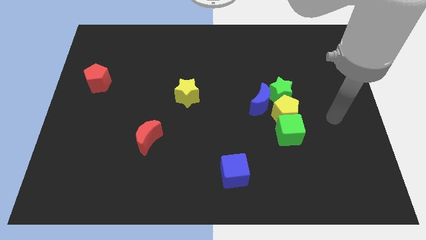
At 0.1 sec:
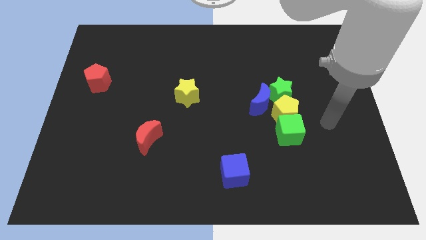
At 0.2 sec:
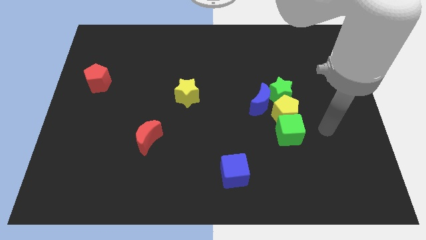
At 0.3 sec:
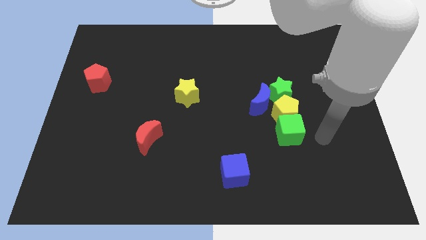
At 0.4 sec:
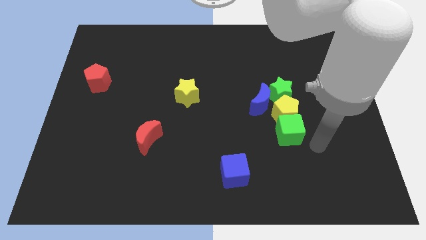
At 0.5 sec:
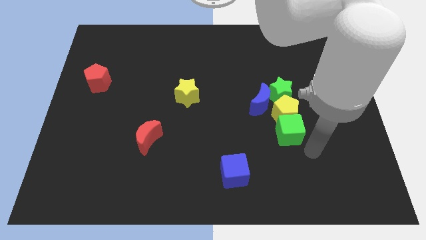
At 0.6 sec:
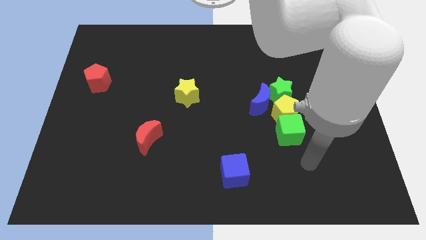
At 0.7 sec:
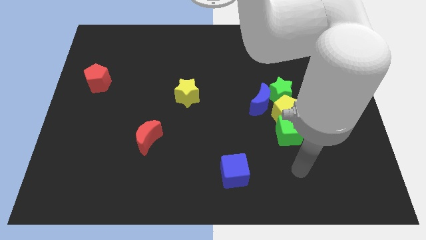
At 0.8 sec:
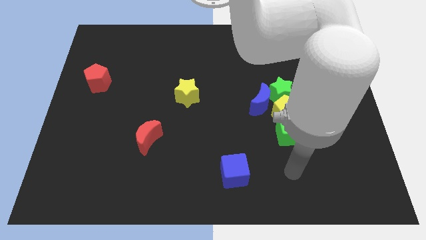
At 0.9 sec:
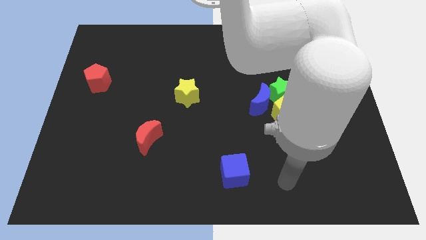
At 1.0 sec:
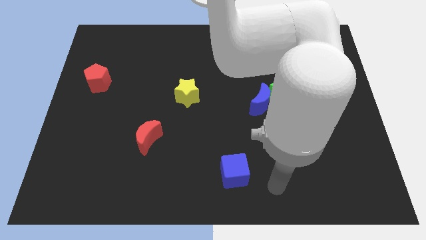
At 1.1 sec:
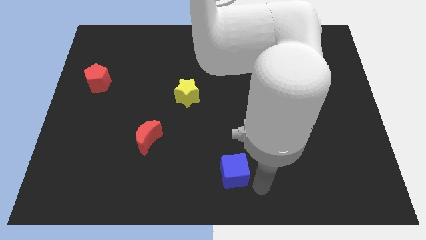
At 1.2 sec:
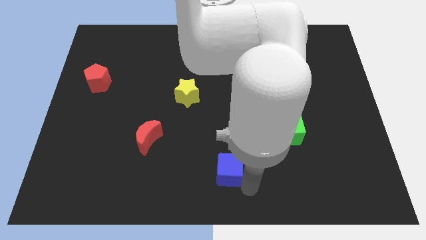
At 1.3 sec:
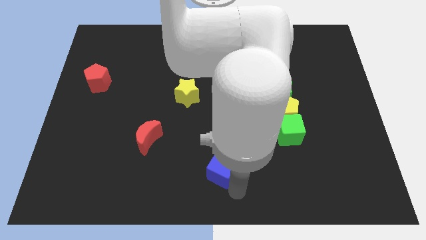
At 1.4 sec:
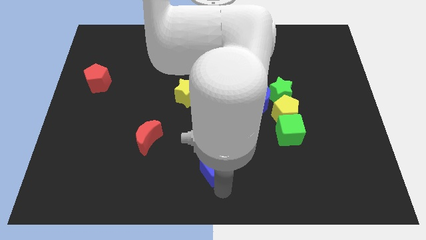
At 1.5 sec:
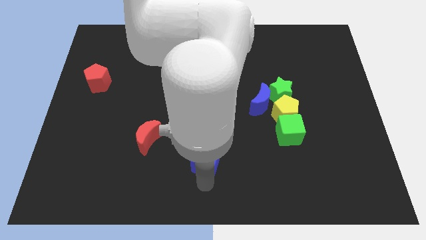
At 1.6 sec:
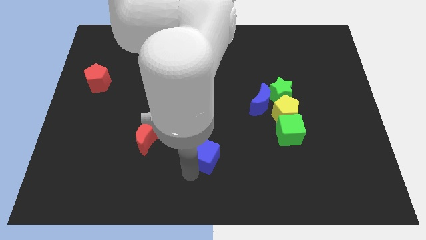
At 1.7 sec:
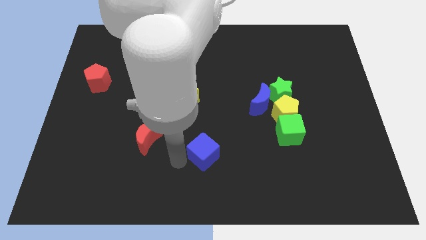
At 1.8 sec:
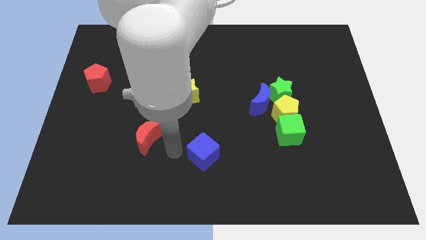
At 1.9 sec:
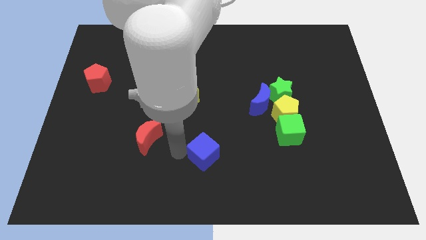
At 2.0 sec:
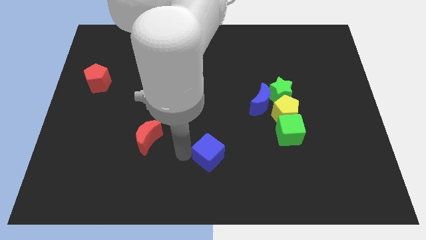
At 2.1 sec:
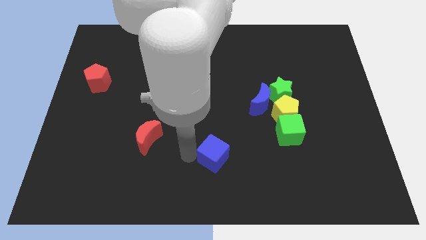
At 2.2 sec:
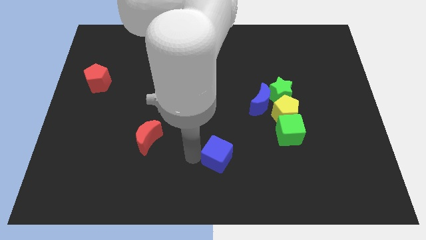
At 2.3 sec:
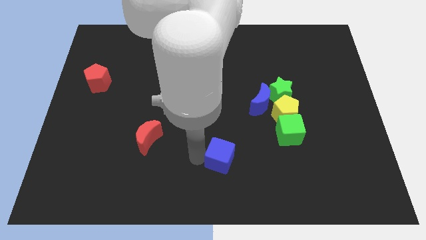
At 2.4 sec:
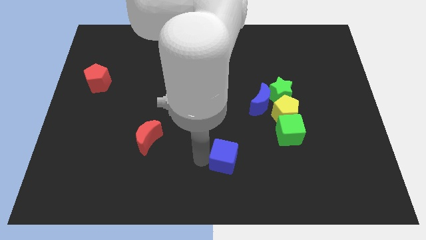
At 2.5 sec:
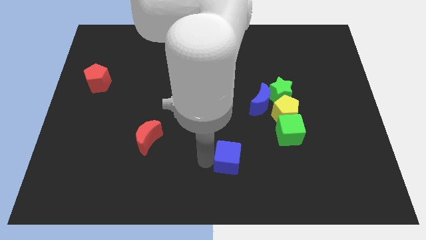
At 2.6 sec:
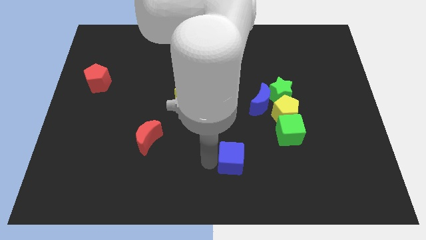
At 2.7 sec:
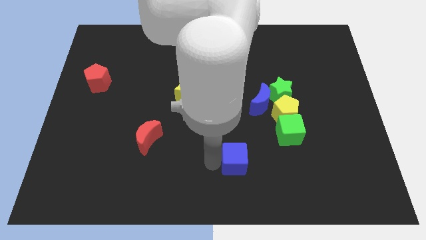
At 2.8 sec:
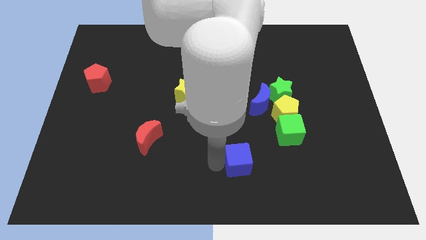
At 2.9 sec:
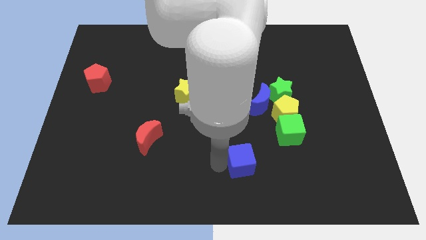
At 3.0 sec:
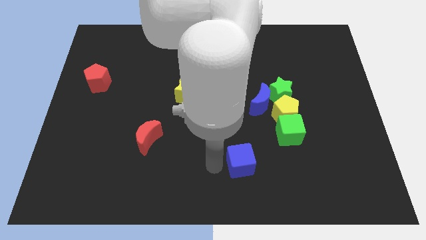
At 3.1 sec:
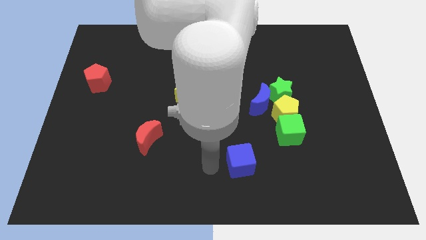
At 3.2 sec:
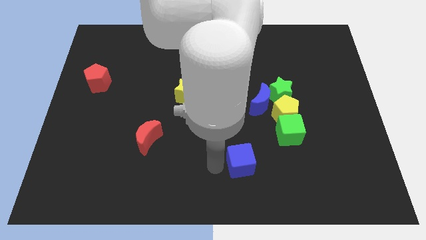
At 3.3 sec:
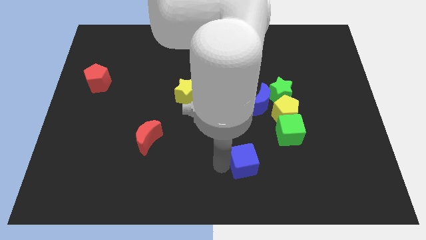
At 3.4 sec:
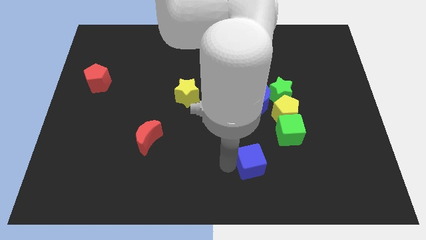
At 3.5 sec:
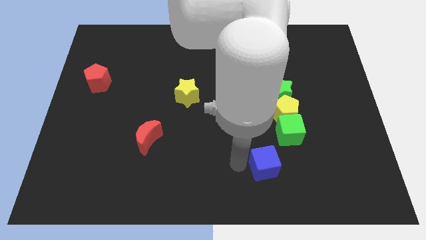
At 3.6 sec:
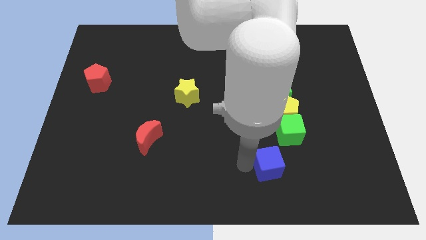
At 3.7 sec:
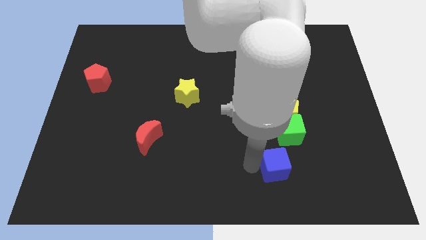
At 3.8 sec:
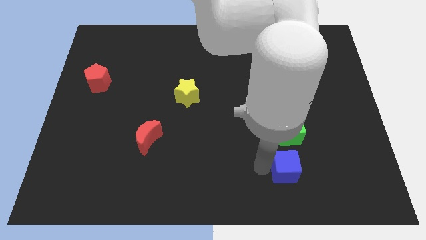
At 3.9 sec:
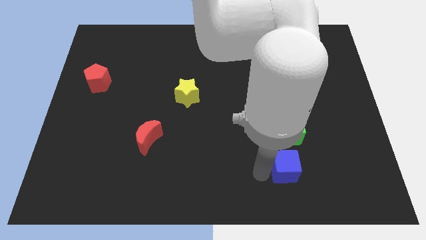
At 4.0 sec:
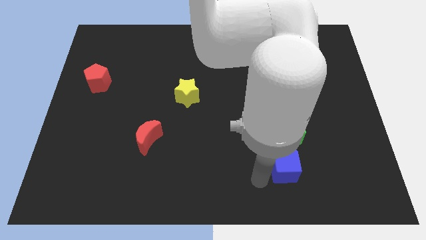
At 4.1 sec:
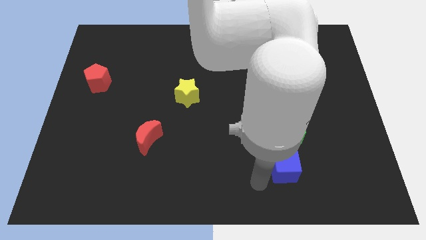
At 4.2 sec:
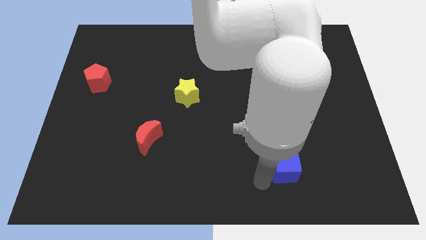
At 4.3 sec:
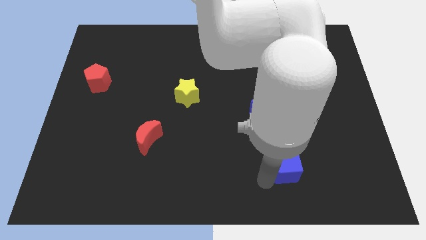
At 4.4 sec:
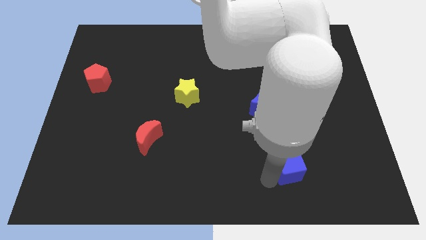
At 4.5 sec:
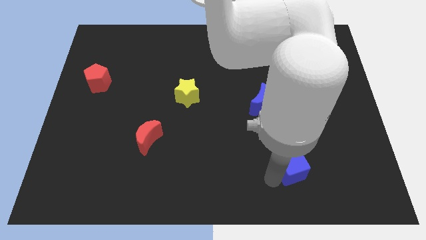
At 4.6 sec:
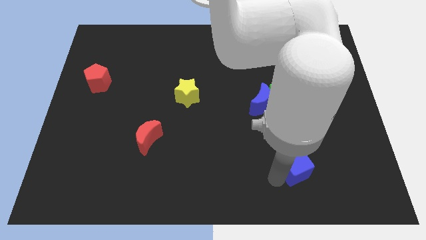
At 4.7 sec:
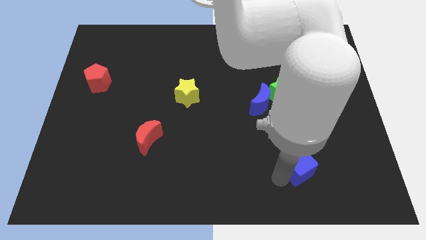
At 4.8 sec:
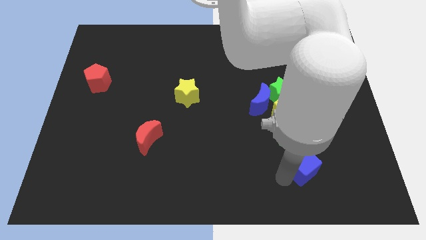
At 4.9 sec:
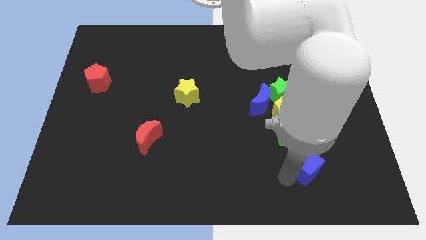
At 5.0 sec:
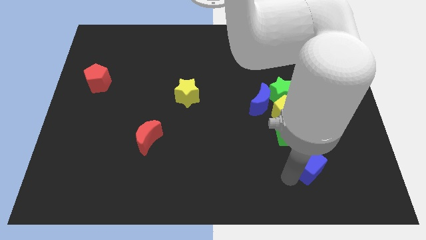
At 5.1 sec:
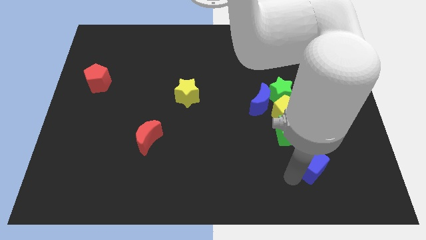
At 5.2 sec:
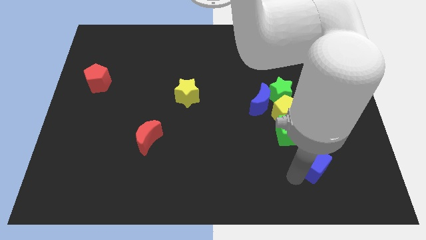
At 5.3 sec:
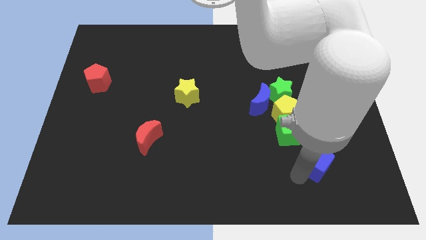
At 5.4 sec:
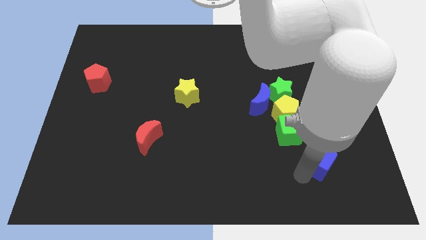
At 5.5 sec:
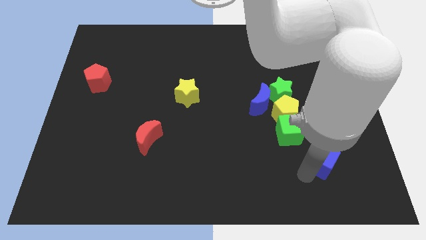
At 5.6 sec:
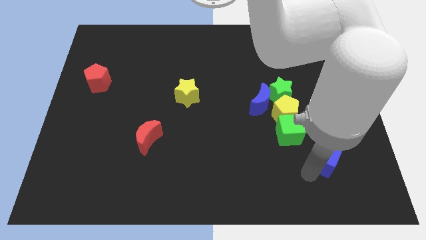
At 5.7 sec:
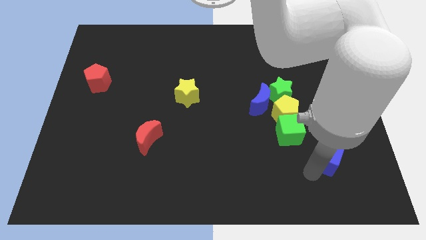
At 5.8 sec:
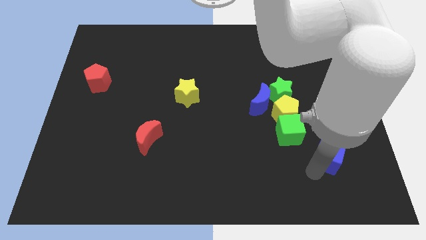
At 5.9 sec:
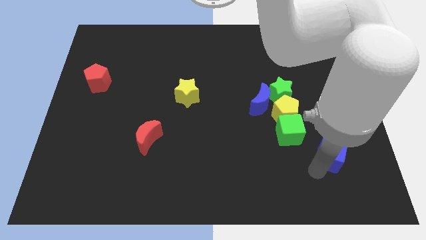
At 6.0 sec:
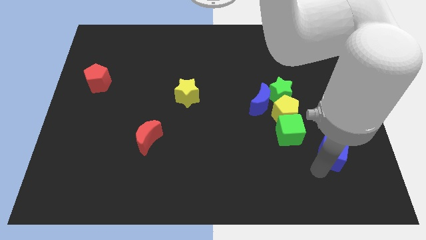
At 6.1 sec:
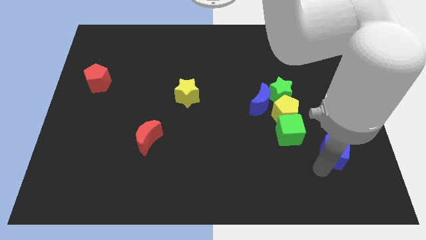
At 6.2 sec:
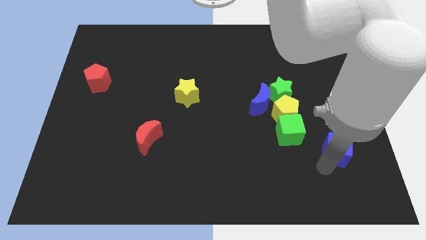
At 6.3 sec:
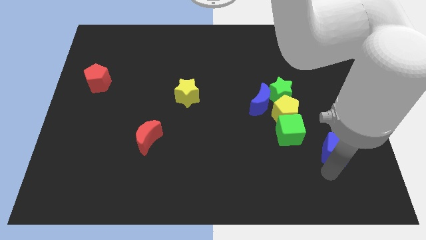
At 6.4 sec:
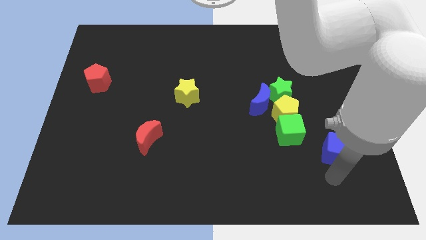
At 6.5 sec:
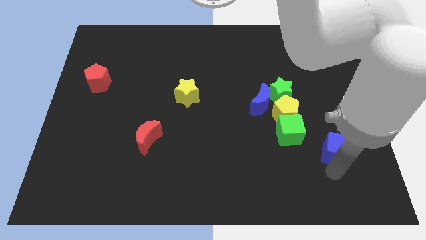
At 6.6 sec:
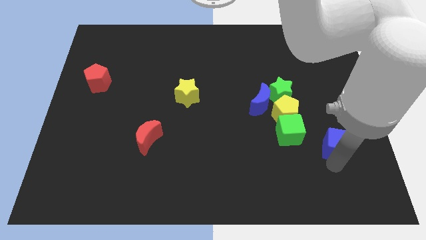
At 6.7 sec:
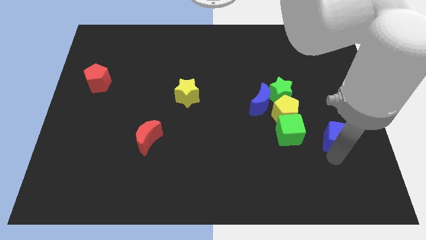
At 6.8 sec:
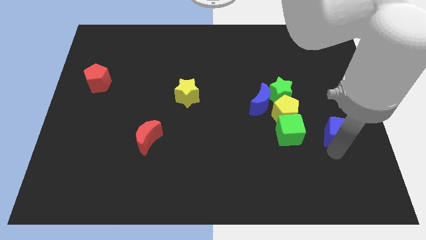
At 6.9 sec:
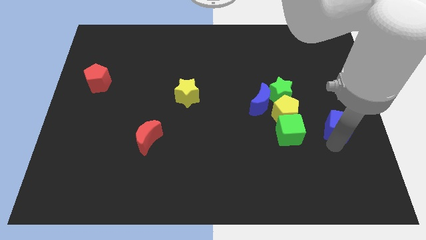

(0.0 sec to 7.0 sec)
push the blue cube to the right side
